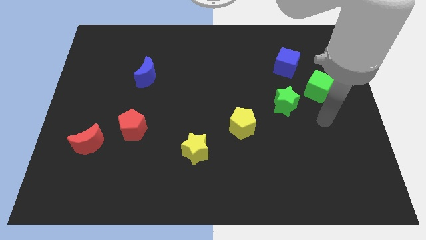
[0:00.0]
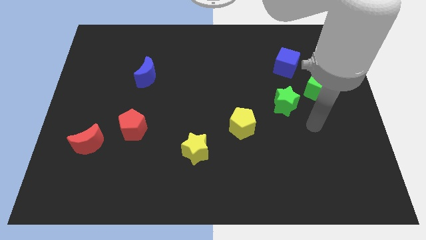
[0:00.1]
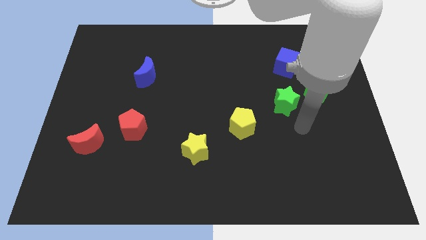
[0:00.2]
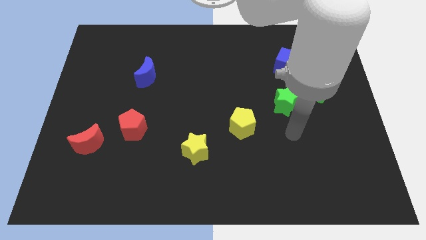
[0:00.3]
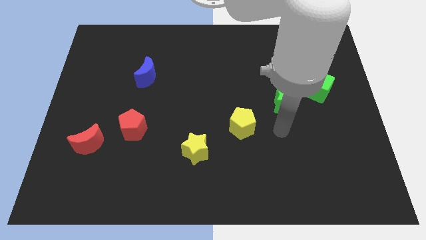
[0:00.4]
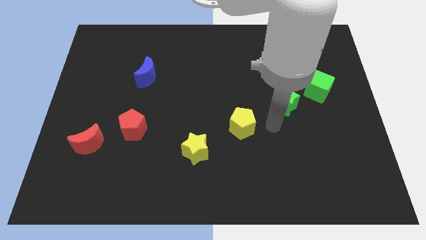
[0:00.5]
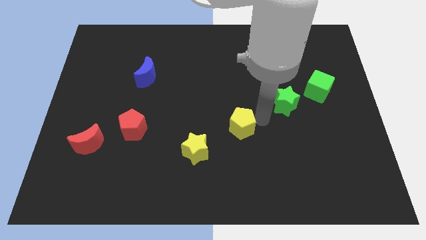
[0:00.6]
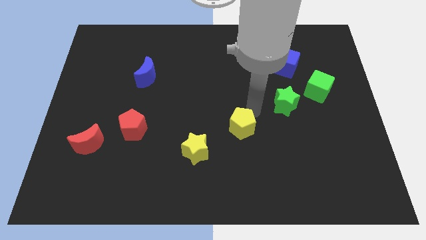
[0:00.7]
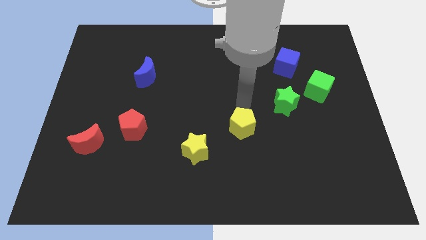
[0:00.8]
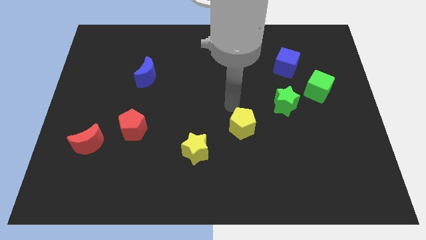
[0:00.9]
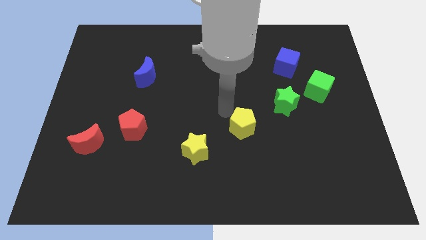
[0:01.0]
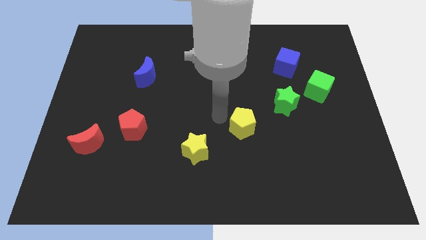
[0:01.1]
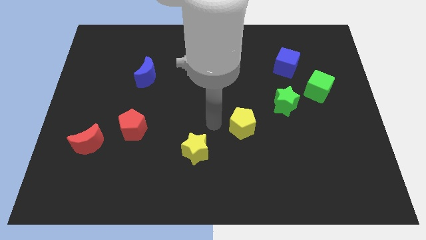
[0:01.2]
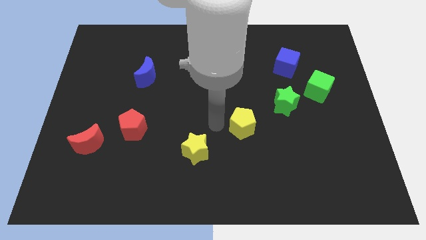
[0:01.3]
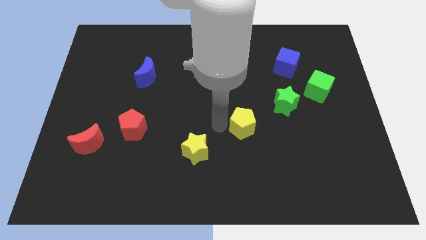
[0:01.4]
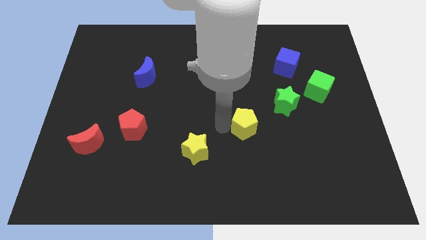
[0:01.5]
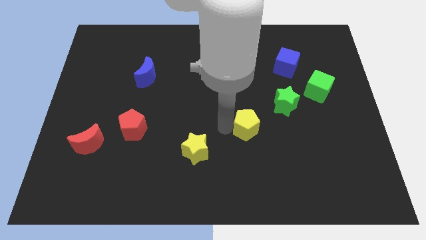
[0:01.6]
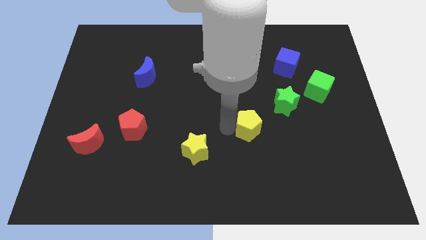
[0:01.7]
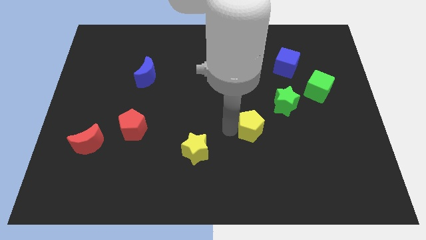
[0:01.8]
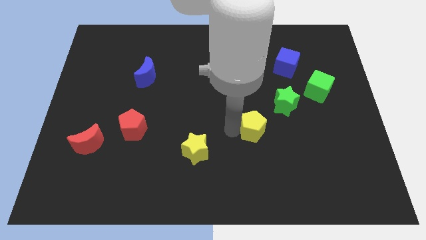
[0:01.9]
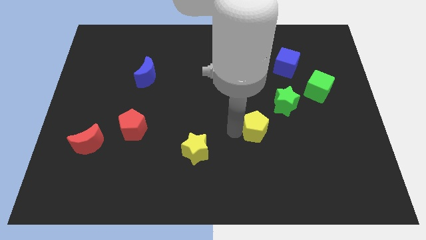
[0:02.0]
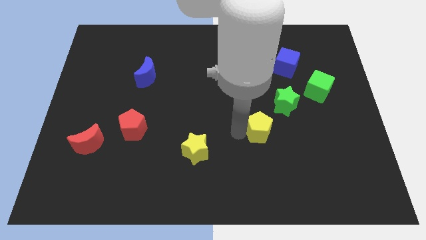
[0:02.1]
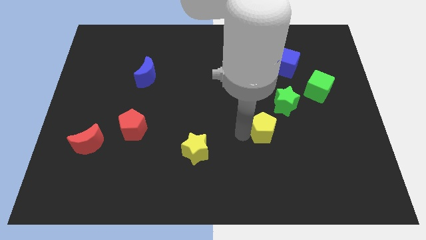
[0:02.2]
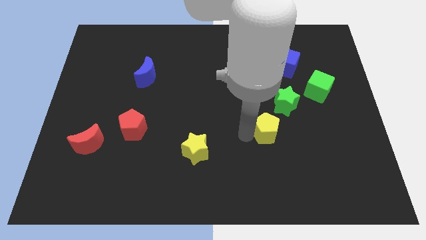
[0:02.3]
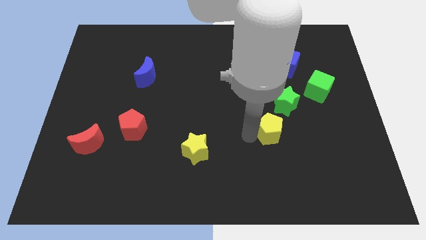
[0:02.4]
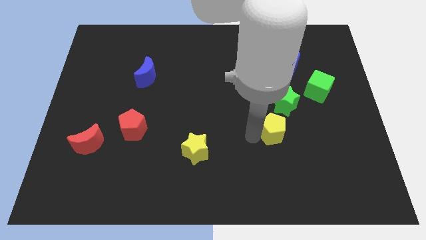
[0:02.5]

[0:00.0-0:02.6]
push the yellow pentagon to the right a little bit

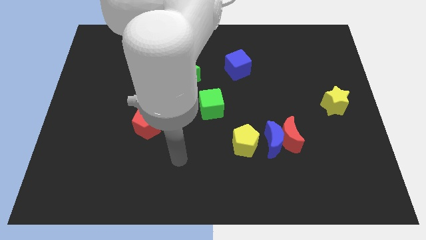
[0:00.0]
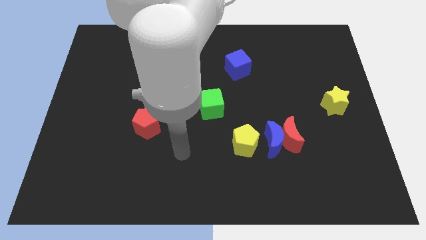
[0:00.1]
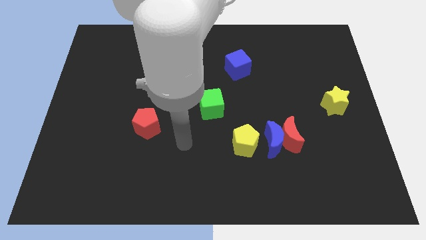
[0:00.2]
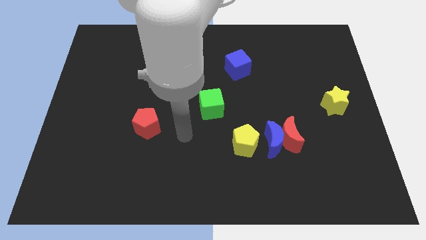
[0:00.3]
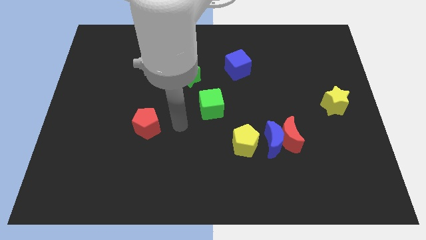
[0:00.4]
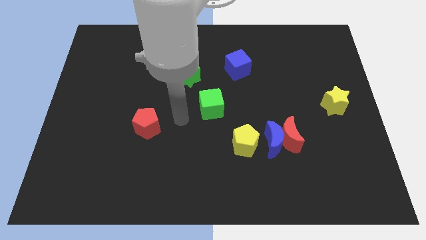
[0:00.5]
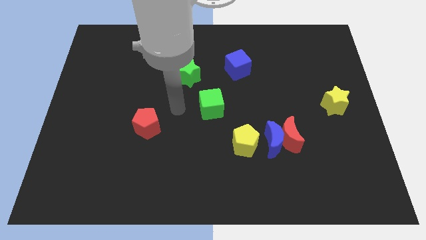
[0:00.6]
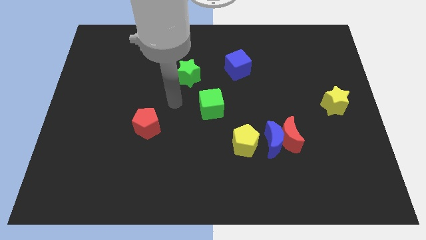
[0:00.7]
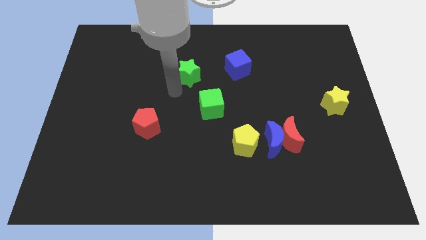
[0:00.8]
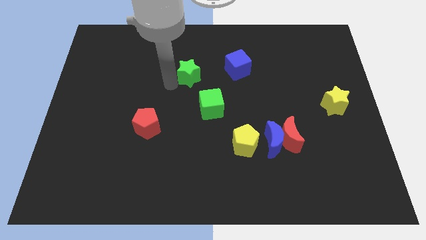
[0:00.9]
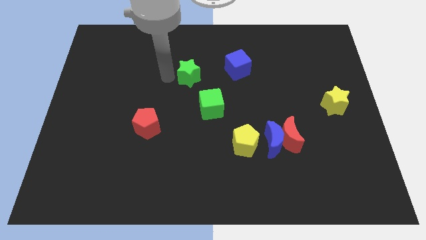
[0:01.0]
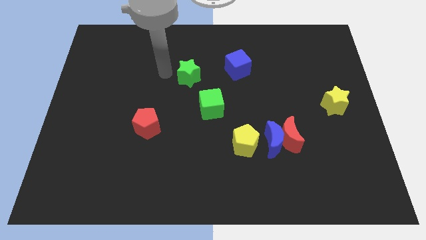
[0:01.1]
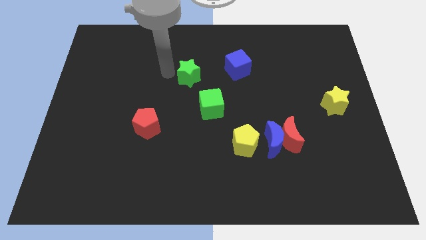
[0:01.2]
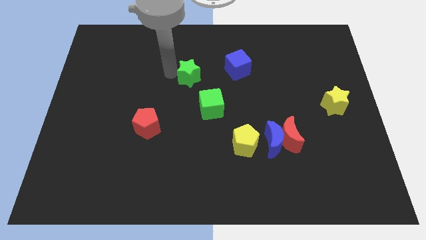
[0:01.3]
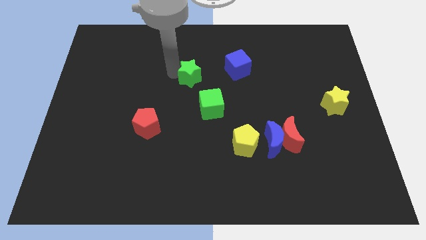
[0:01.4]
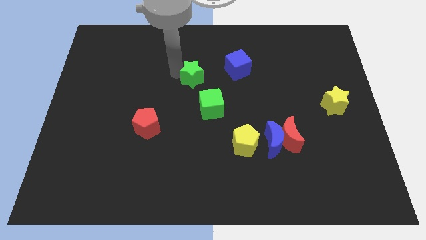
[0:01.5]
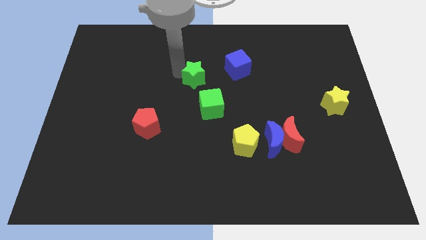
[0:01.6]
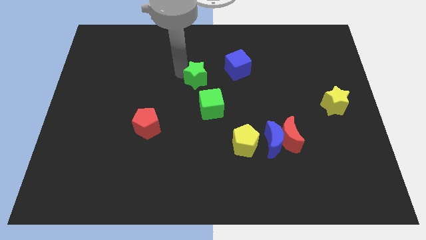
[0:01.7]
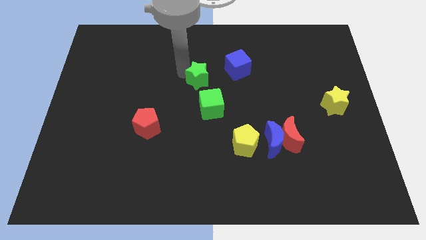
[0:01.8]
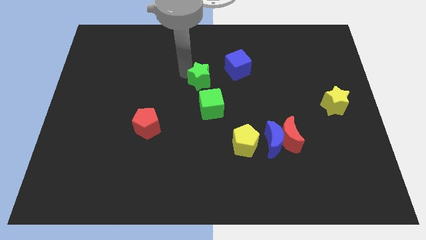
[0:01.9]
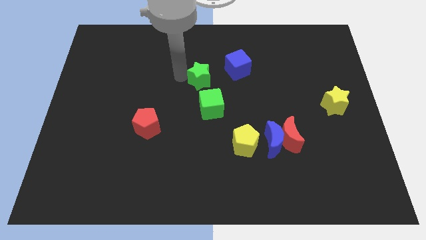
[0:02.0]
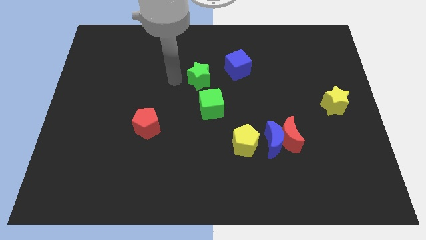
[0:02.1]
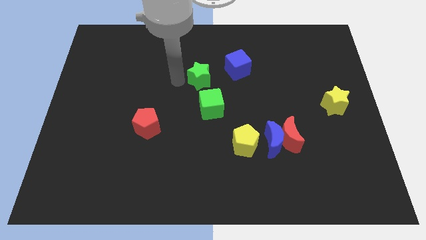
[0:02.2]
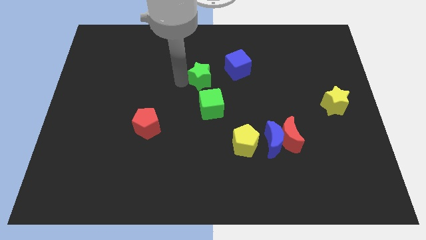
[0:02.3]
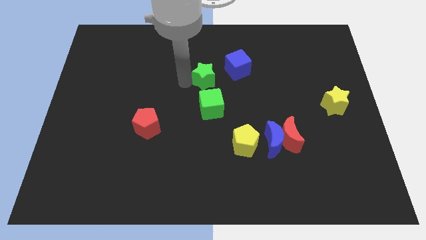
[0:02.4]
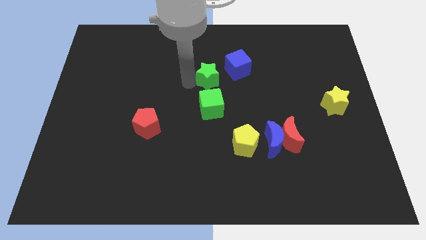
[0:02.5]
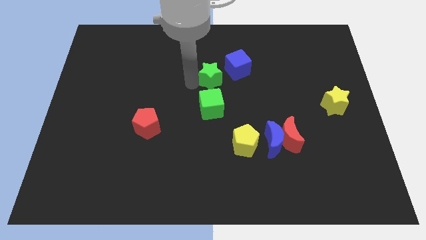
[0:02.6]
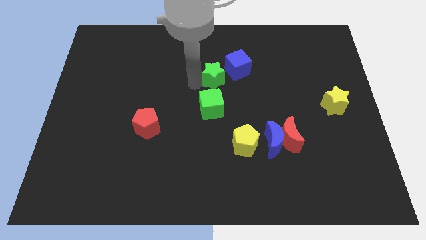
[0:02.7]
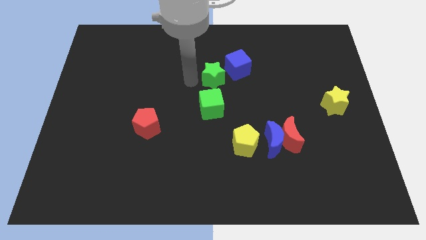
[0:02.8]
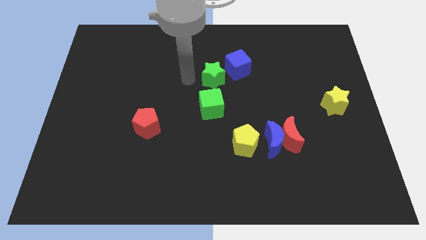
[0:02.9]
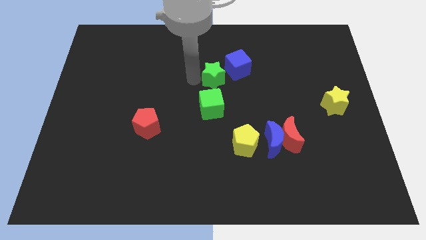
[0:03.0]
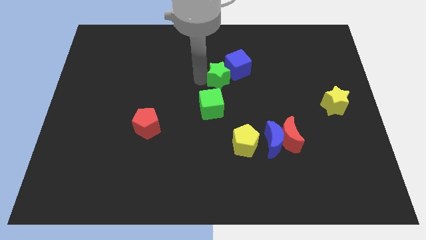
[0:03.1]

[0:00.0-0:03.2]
move the green star a little right

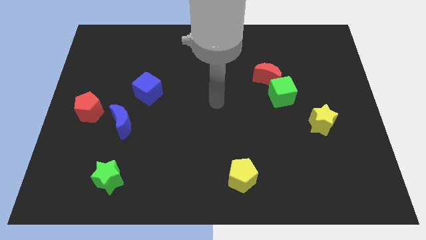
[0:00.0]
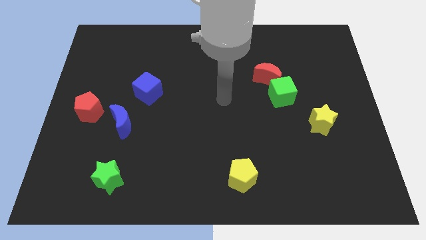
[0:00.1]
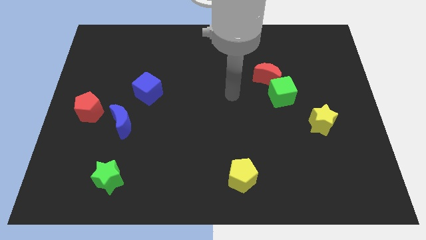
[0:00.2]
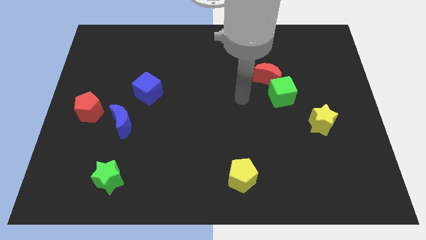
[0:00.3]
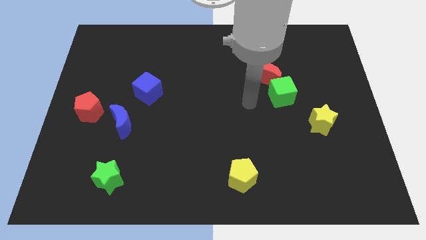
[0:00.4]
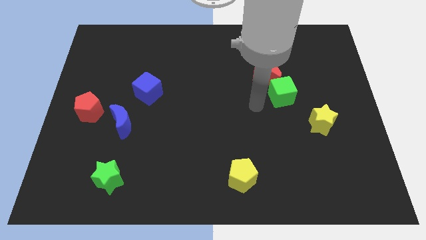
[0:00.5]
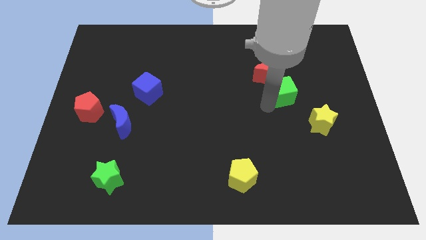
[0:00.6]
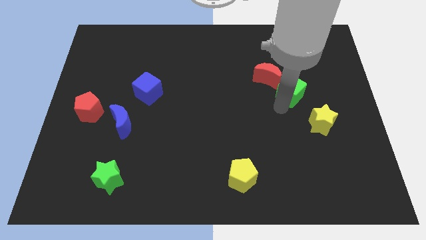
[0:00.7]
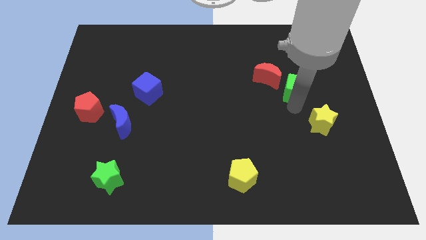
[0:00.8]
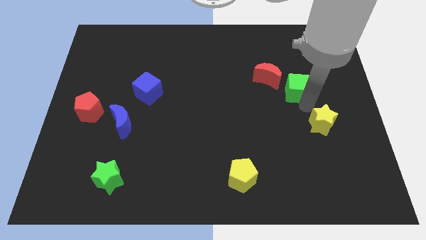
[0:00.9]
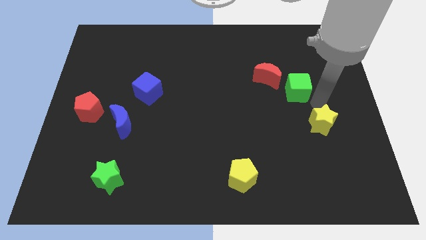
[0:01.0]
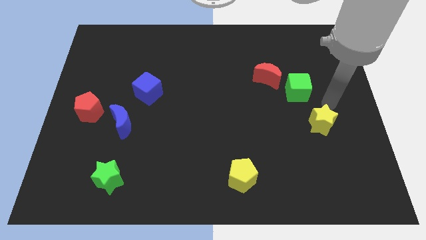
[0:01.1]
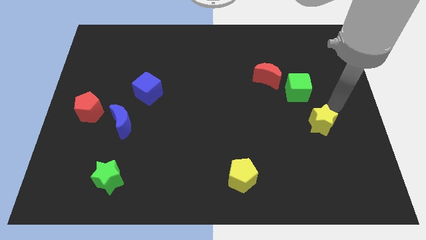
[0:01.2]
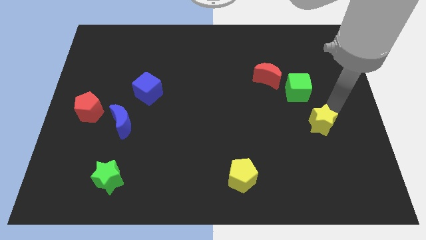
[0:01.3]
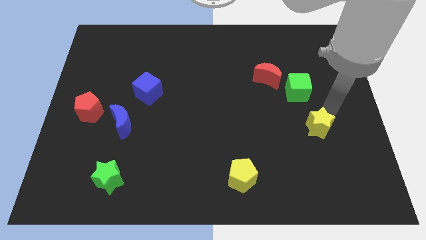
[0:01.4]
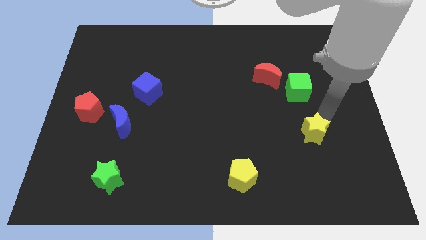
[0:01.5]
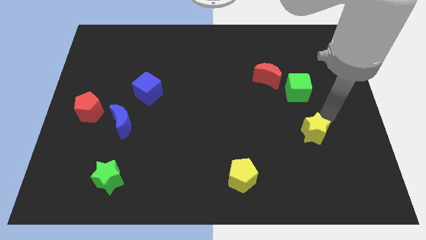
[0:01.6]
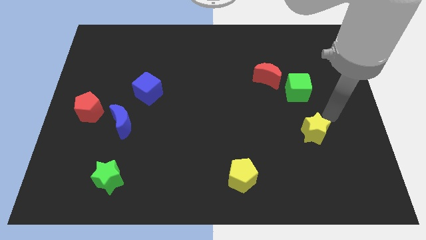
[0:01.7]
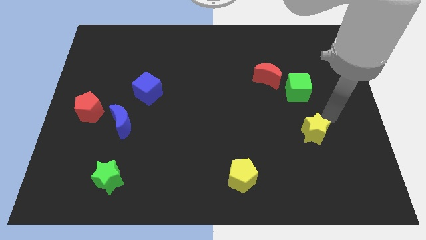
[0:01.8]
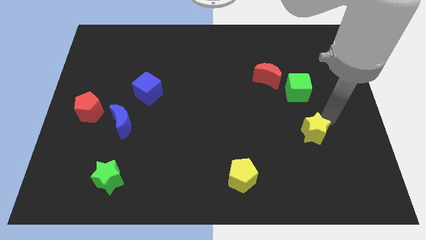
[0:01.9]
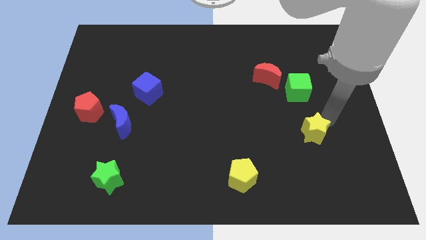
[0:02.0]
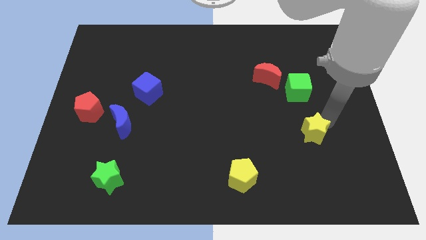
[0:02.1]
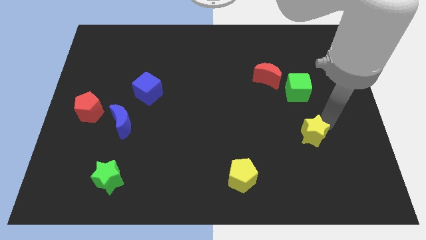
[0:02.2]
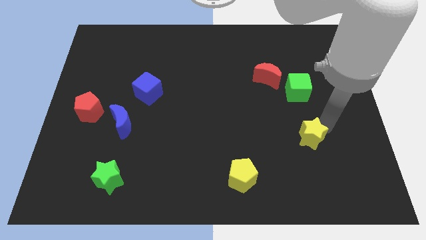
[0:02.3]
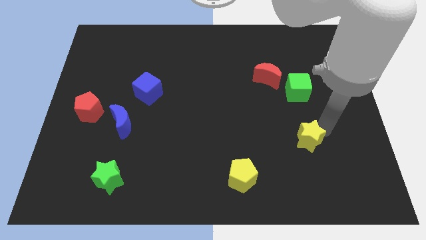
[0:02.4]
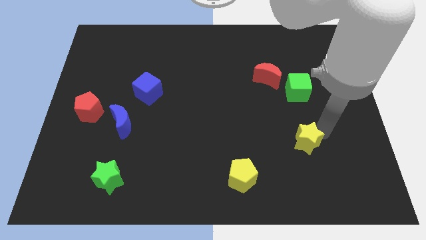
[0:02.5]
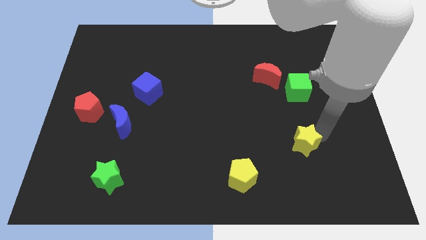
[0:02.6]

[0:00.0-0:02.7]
slightly push the yellow star downwards and to the left
